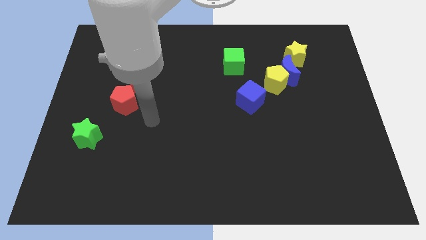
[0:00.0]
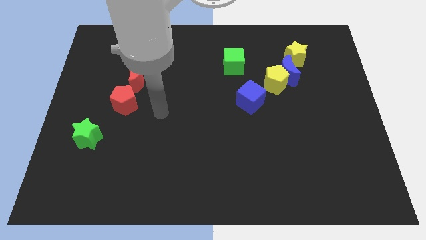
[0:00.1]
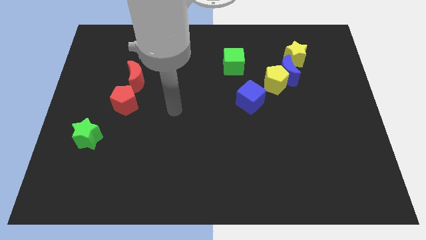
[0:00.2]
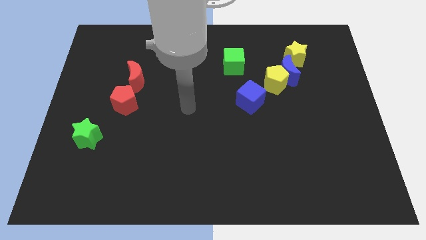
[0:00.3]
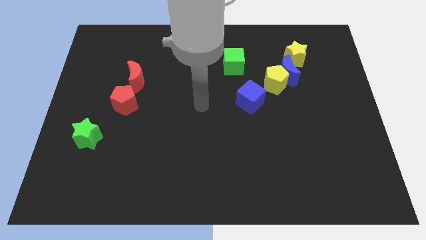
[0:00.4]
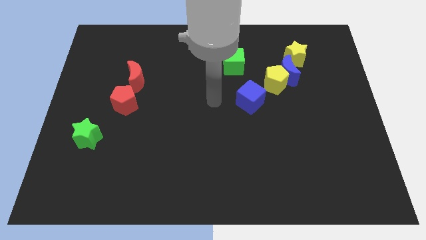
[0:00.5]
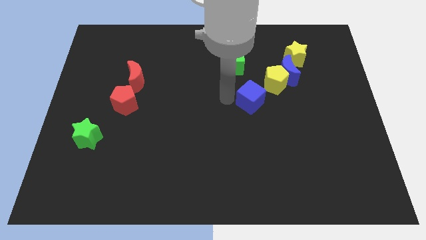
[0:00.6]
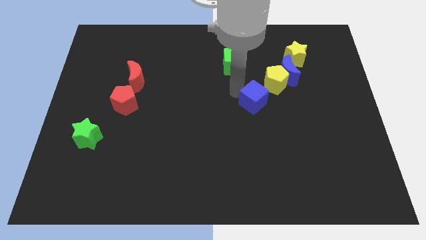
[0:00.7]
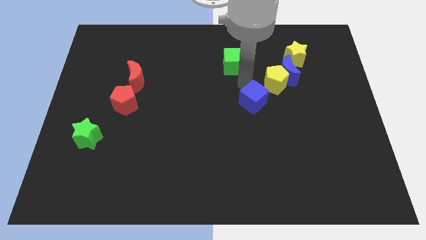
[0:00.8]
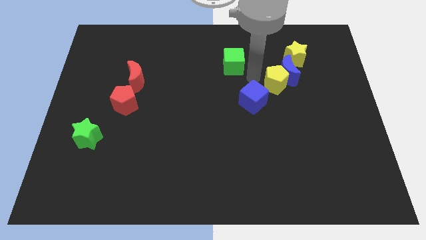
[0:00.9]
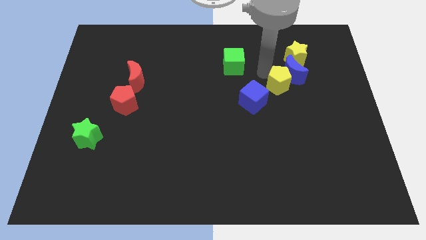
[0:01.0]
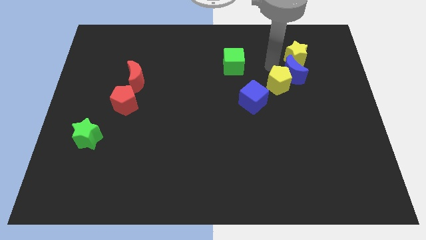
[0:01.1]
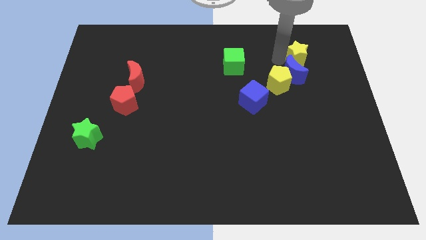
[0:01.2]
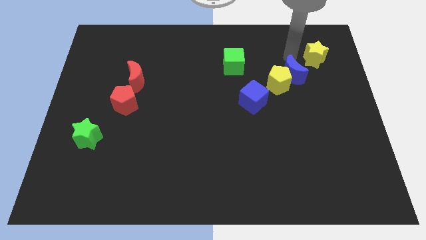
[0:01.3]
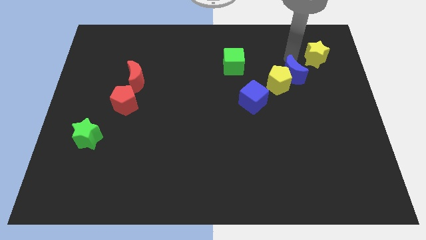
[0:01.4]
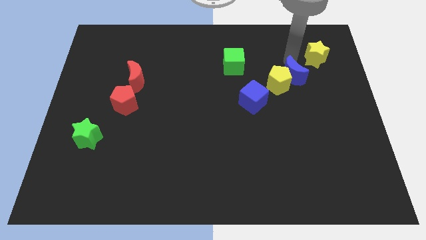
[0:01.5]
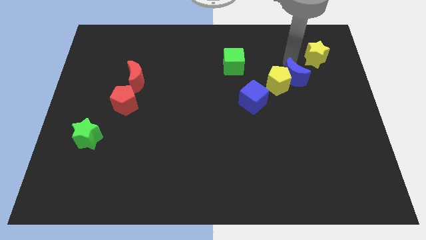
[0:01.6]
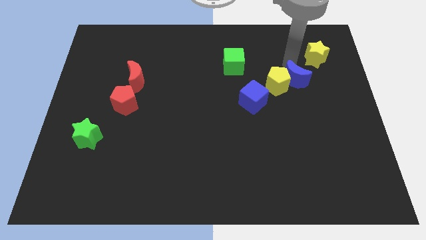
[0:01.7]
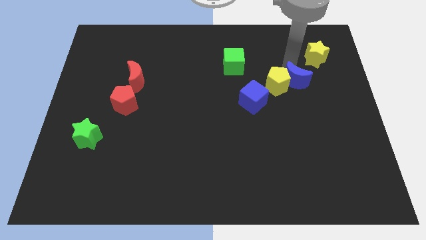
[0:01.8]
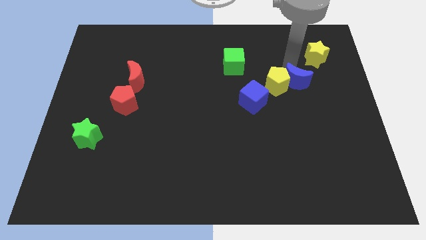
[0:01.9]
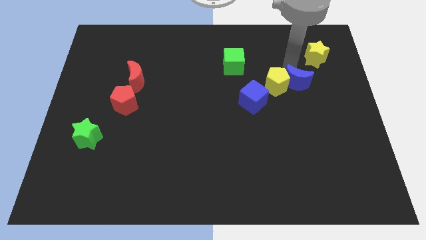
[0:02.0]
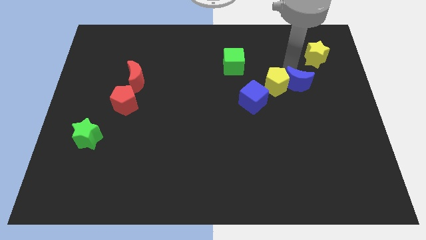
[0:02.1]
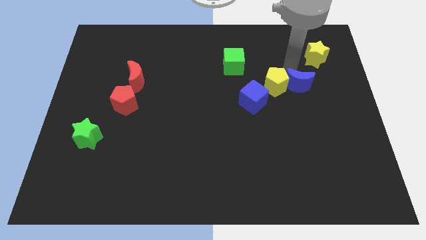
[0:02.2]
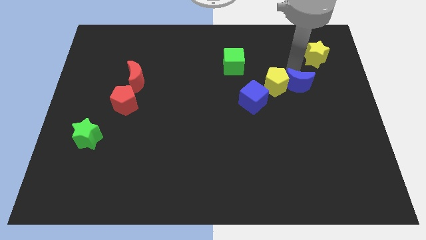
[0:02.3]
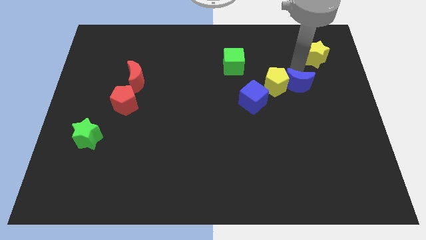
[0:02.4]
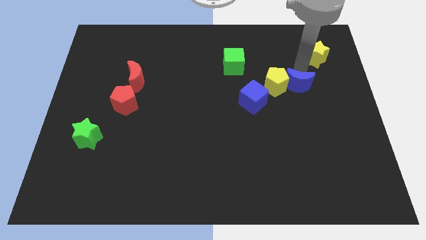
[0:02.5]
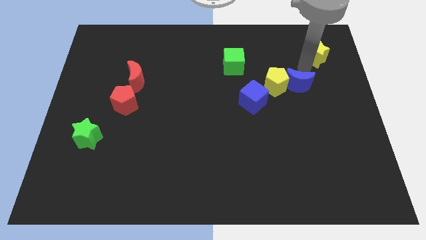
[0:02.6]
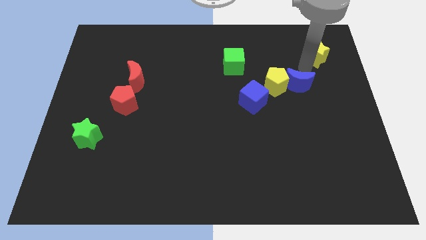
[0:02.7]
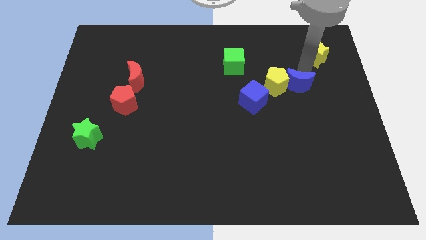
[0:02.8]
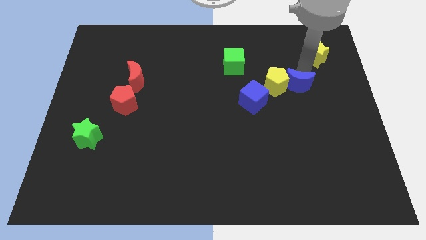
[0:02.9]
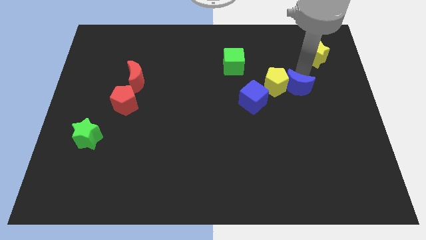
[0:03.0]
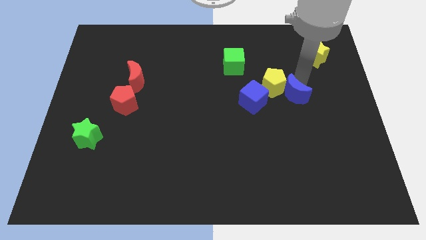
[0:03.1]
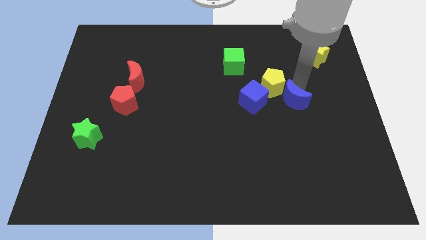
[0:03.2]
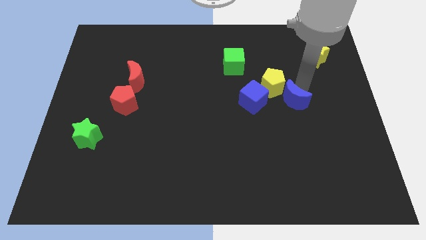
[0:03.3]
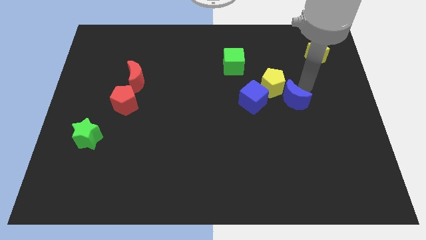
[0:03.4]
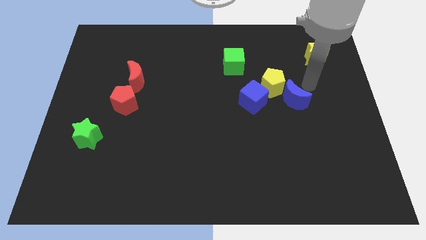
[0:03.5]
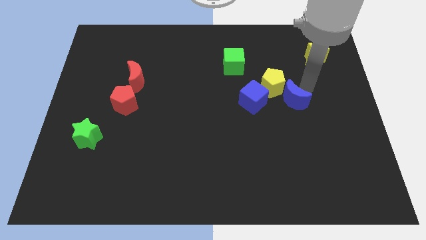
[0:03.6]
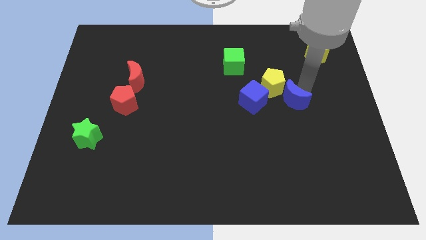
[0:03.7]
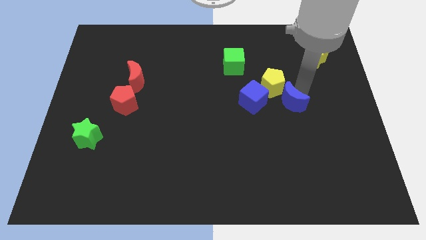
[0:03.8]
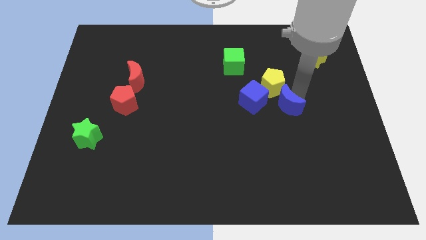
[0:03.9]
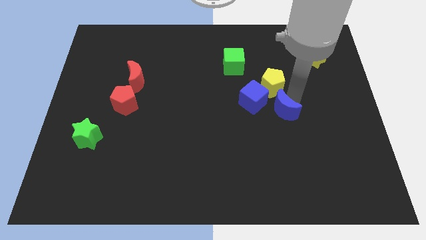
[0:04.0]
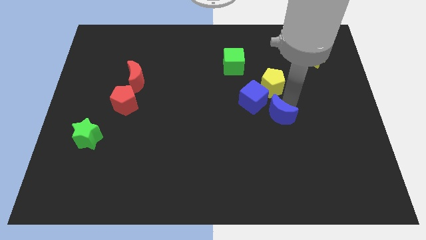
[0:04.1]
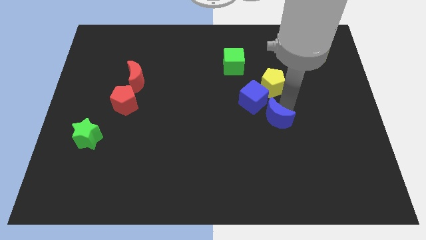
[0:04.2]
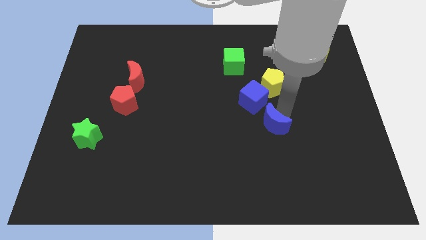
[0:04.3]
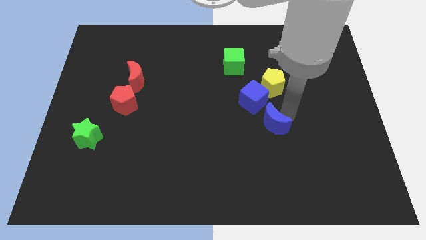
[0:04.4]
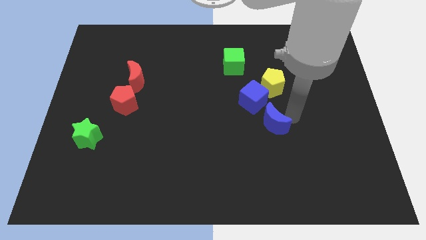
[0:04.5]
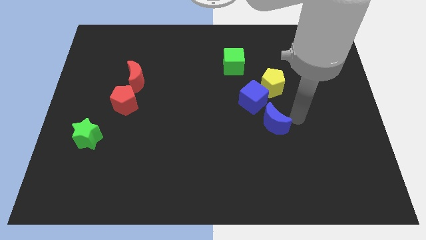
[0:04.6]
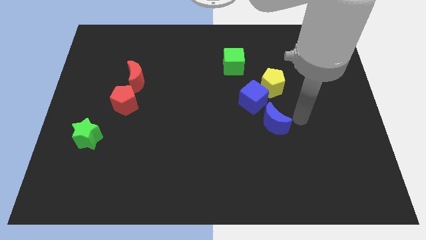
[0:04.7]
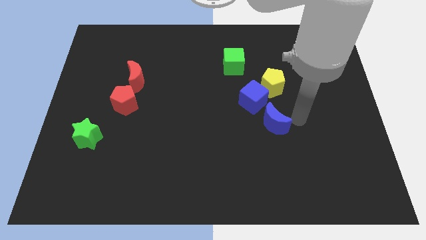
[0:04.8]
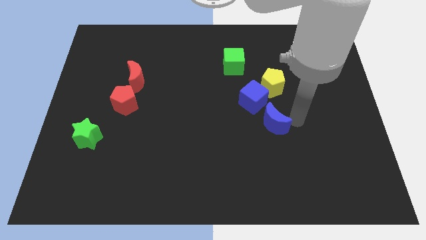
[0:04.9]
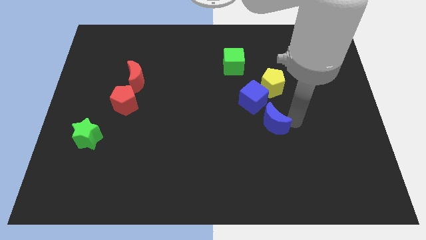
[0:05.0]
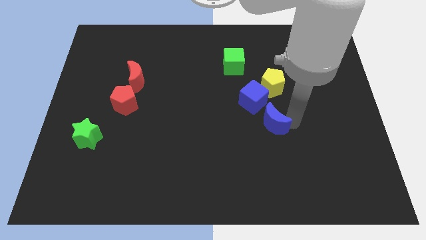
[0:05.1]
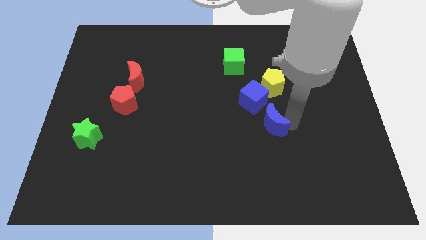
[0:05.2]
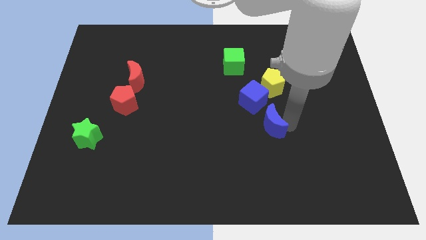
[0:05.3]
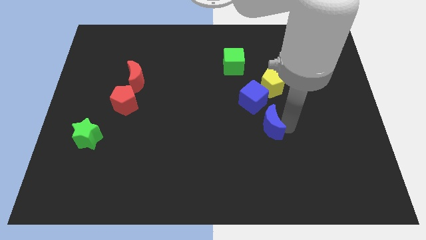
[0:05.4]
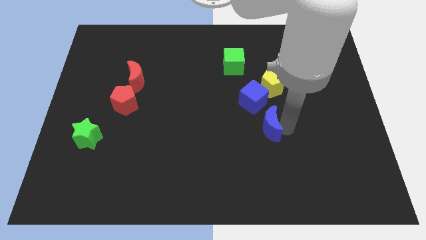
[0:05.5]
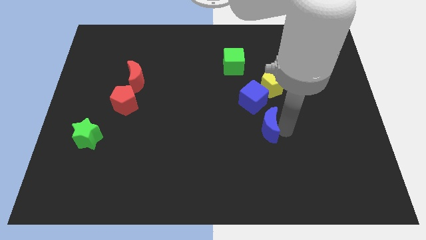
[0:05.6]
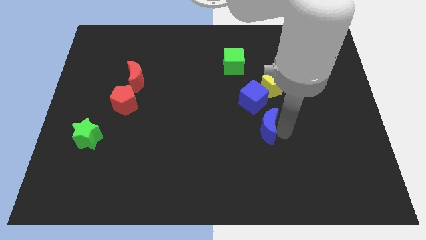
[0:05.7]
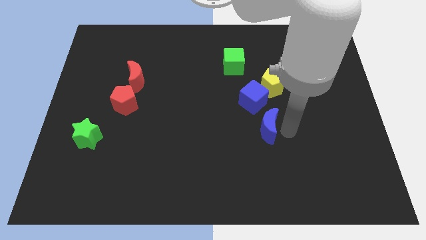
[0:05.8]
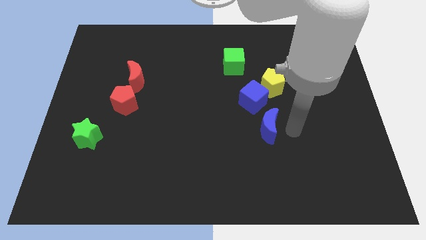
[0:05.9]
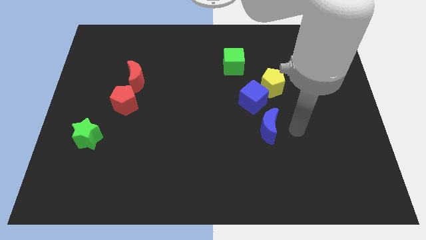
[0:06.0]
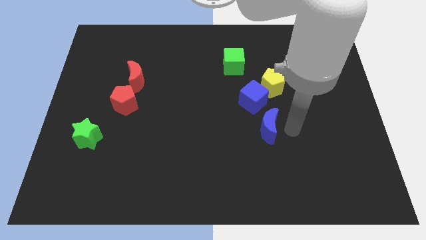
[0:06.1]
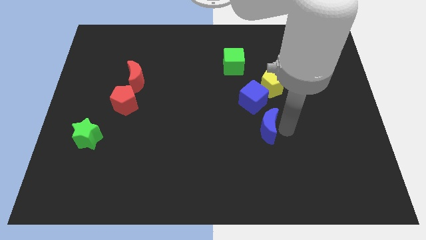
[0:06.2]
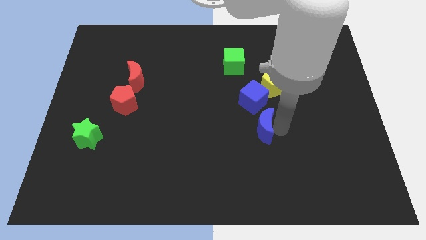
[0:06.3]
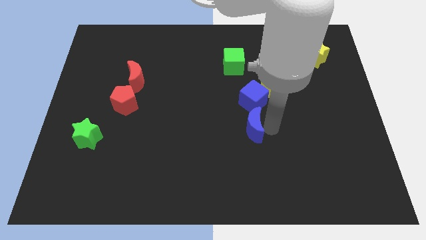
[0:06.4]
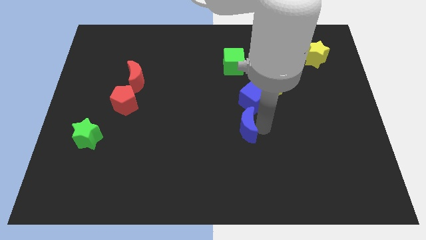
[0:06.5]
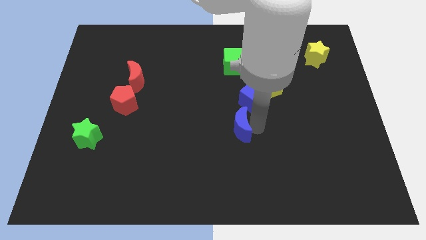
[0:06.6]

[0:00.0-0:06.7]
push the blue moon diagonally downwards and to the left

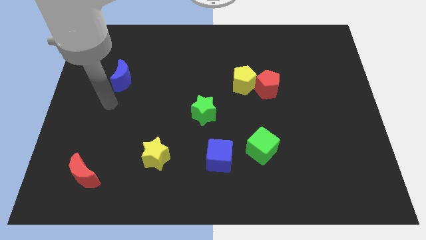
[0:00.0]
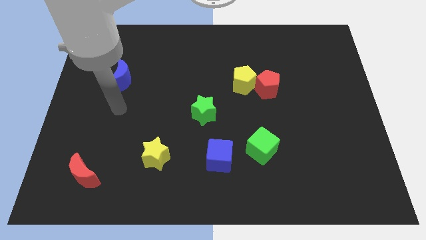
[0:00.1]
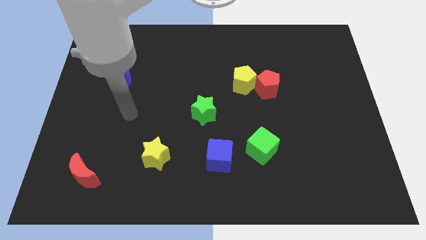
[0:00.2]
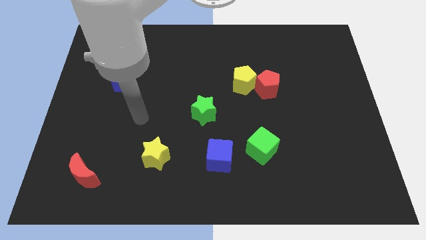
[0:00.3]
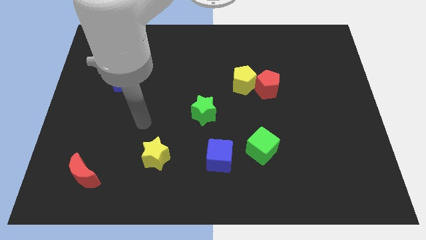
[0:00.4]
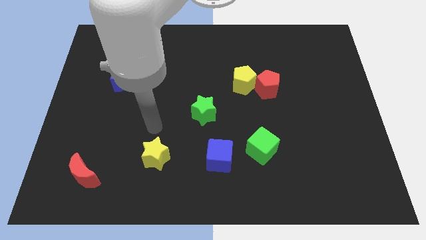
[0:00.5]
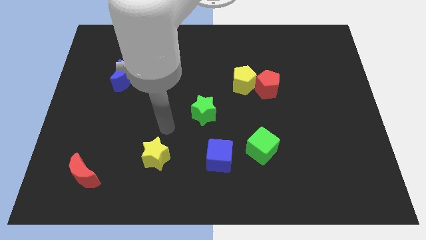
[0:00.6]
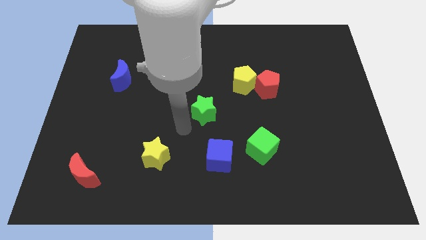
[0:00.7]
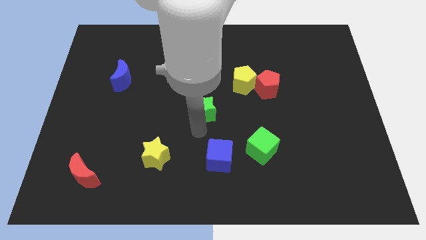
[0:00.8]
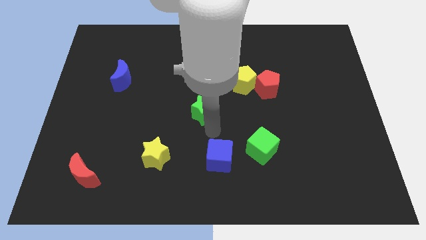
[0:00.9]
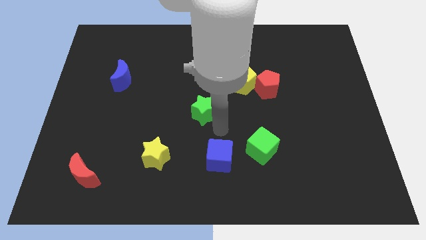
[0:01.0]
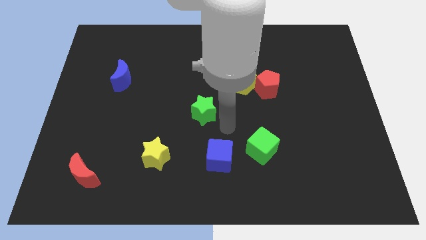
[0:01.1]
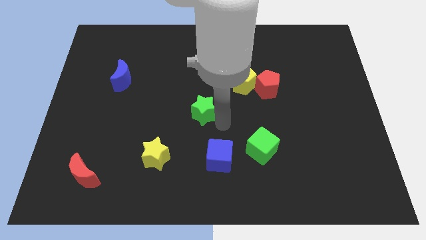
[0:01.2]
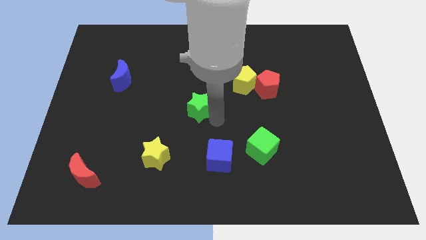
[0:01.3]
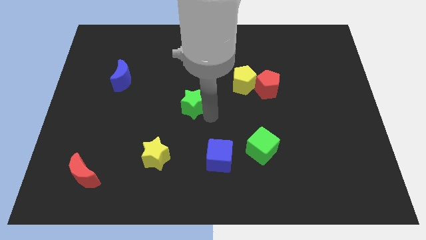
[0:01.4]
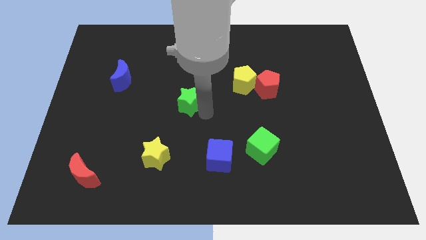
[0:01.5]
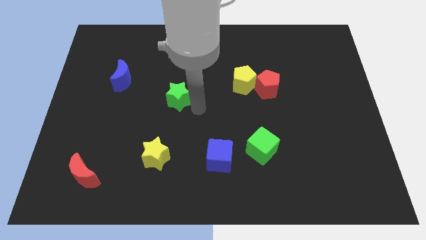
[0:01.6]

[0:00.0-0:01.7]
slide the green star somewhat diagonally up and to the left
